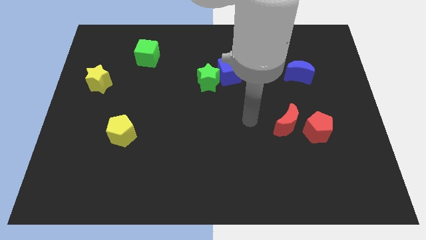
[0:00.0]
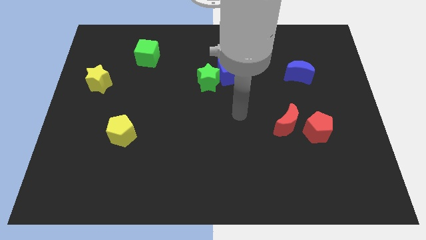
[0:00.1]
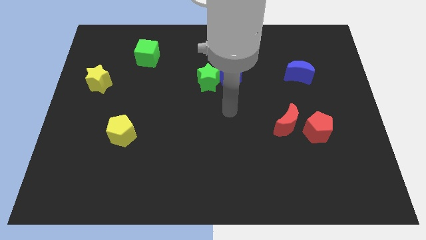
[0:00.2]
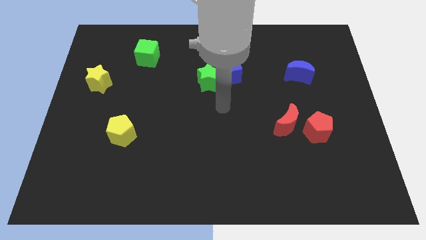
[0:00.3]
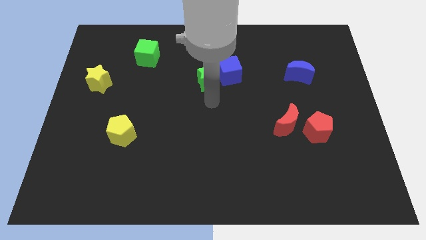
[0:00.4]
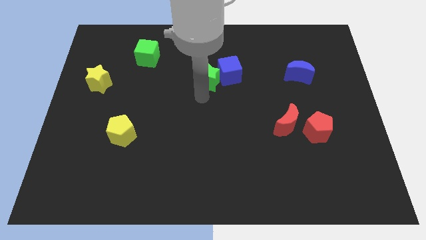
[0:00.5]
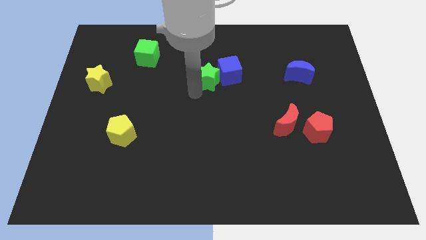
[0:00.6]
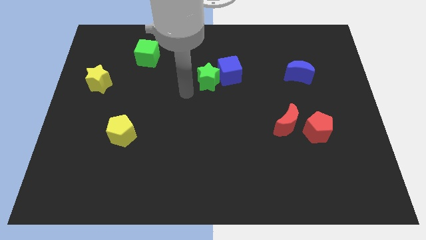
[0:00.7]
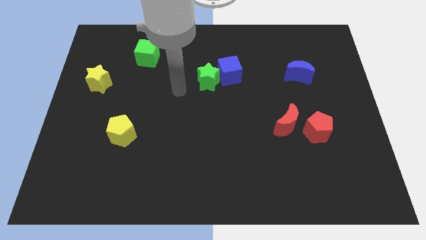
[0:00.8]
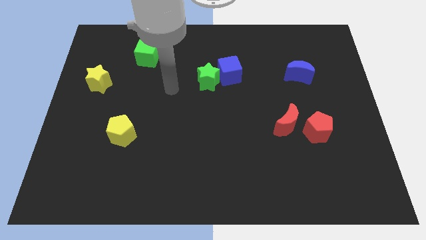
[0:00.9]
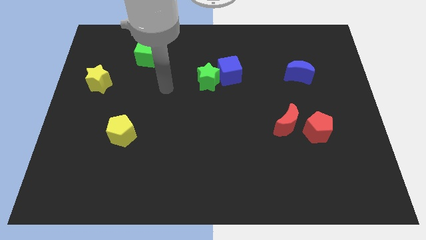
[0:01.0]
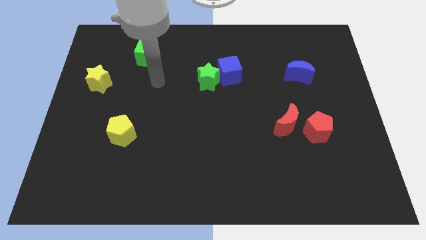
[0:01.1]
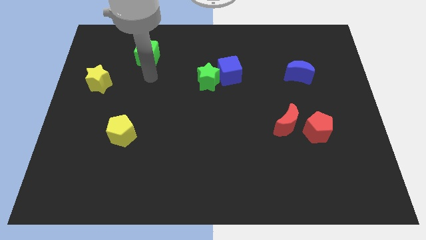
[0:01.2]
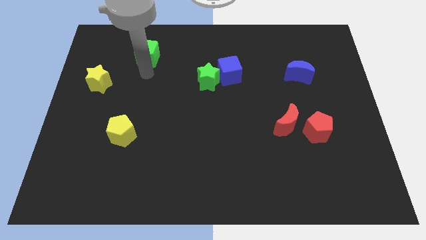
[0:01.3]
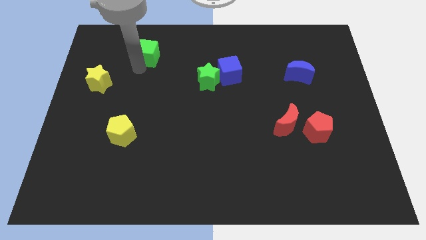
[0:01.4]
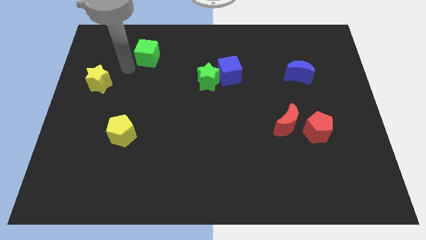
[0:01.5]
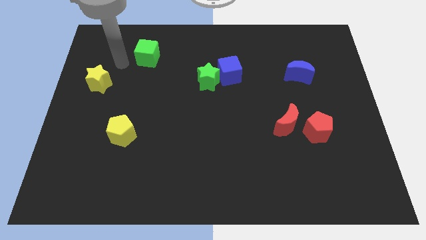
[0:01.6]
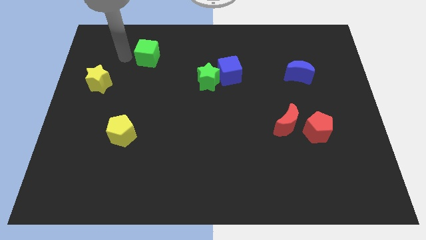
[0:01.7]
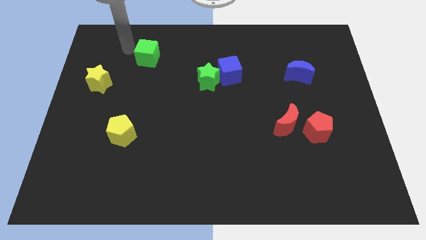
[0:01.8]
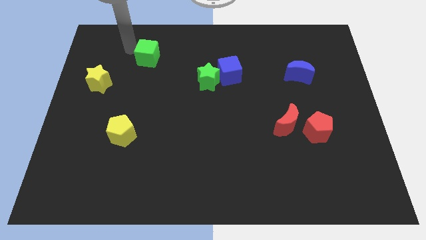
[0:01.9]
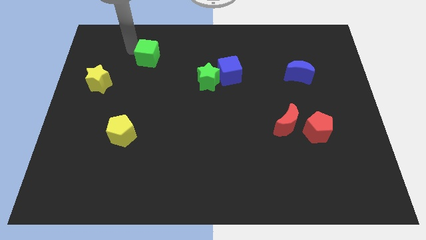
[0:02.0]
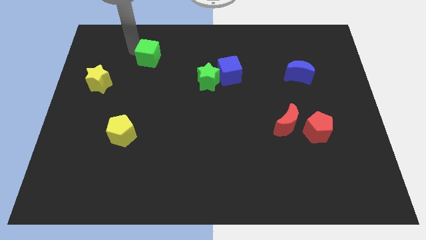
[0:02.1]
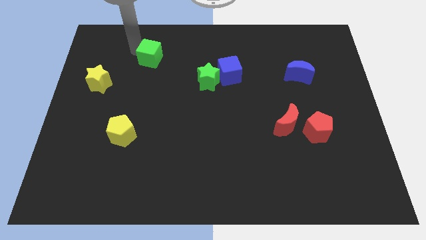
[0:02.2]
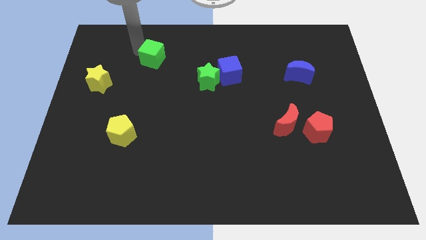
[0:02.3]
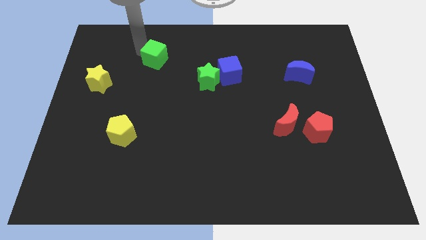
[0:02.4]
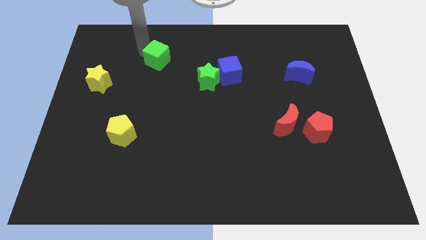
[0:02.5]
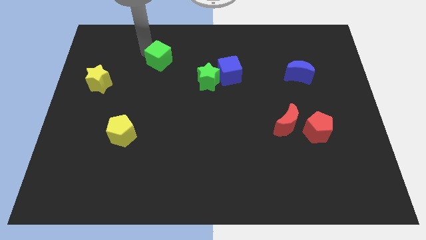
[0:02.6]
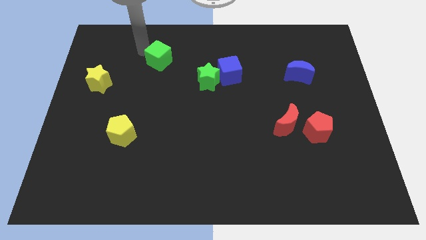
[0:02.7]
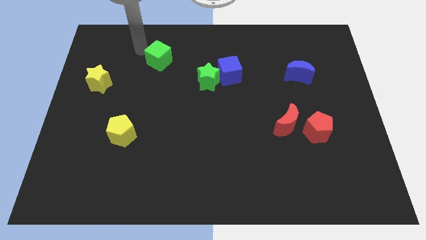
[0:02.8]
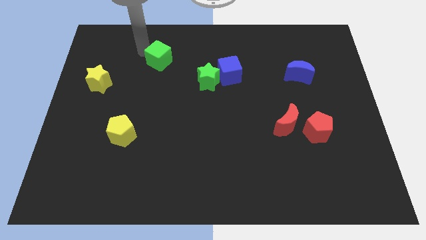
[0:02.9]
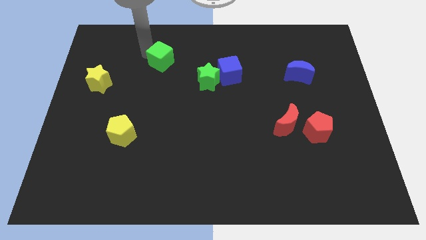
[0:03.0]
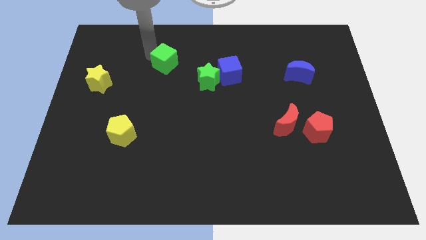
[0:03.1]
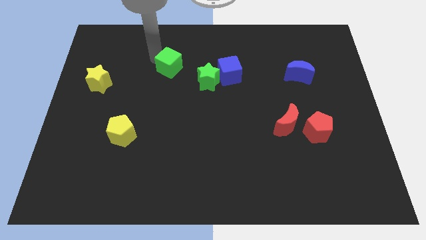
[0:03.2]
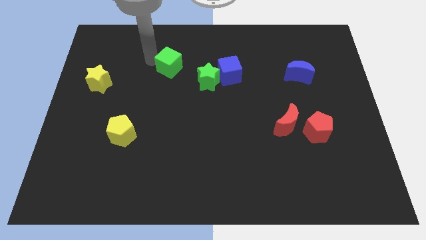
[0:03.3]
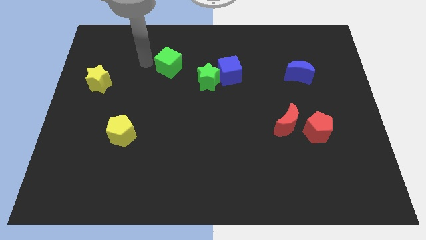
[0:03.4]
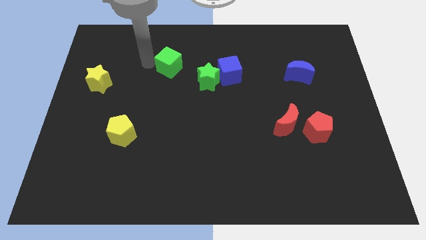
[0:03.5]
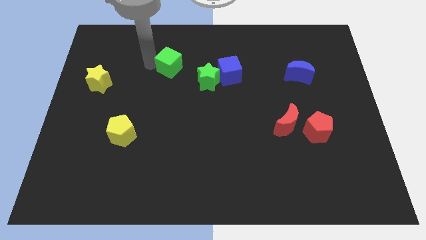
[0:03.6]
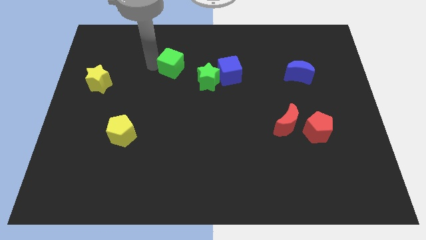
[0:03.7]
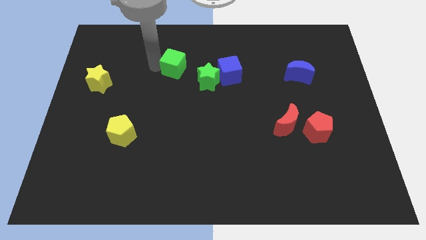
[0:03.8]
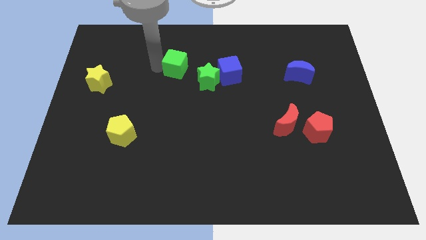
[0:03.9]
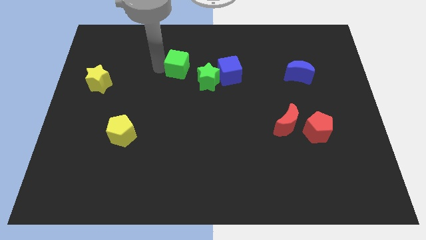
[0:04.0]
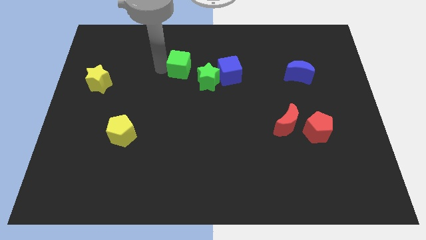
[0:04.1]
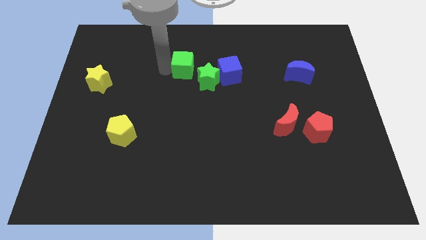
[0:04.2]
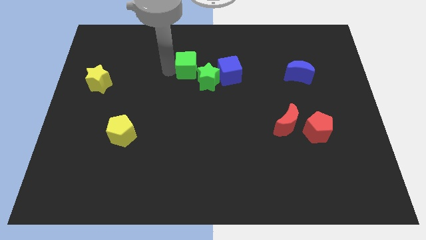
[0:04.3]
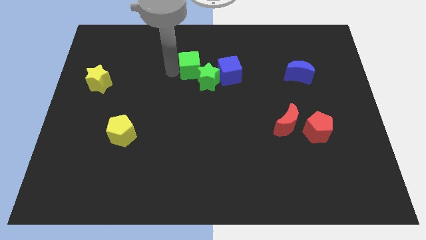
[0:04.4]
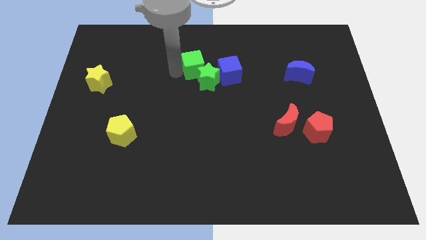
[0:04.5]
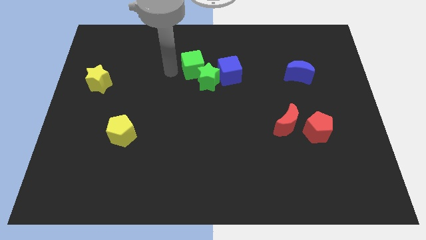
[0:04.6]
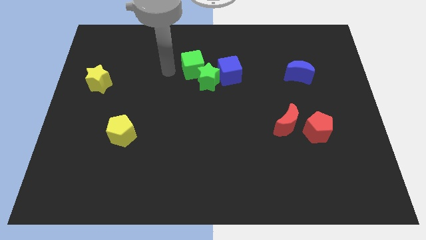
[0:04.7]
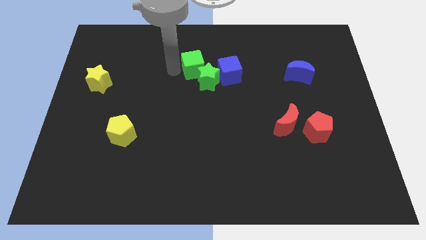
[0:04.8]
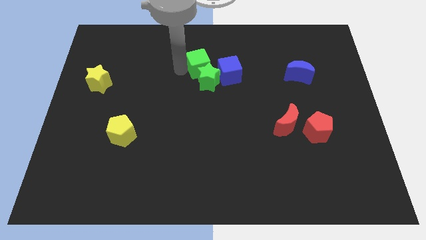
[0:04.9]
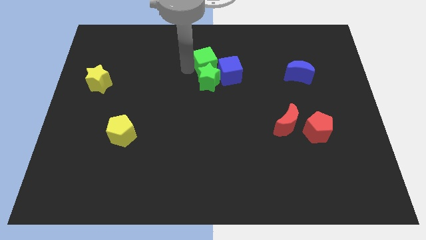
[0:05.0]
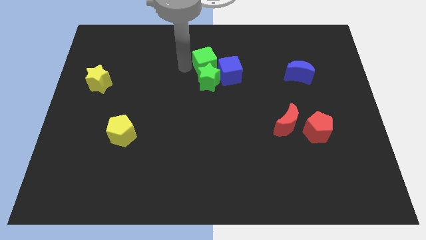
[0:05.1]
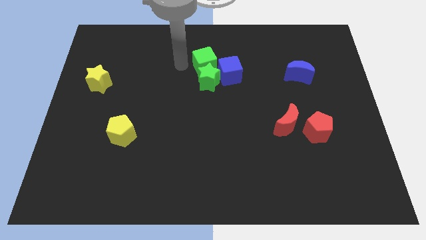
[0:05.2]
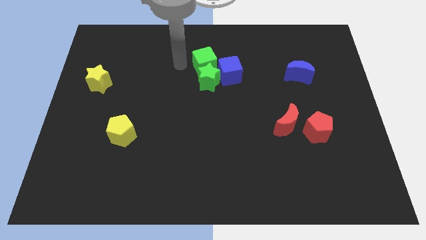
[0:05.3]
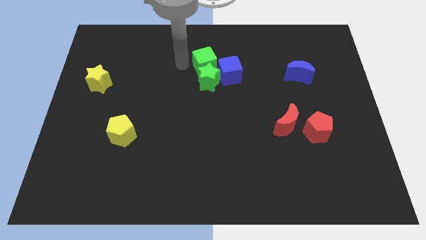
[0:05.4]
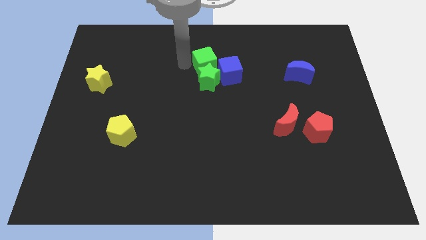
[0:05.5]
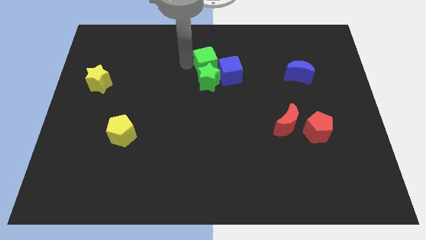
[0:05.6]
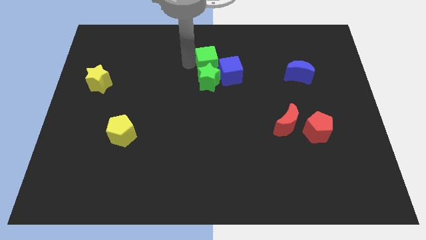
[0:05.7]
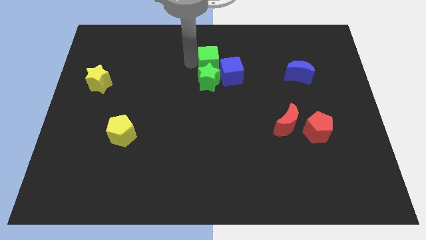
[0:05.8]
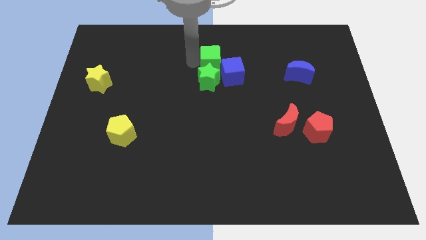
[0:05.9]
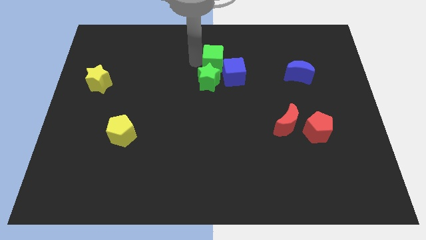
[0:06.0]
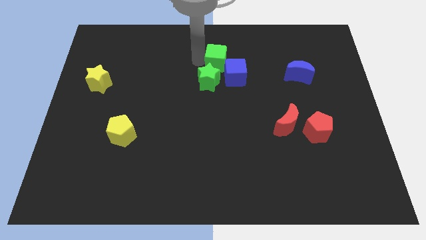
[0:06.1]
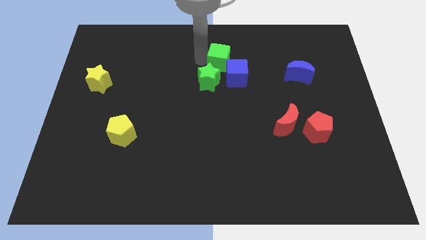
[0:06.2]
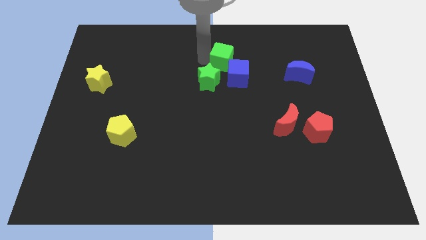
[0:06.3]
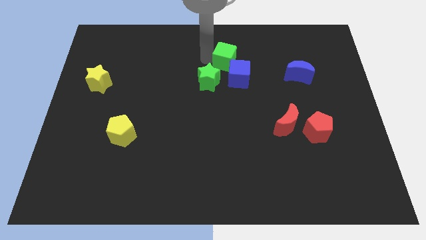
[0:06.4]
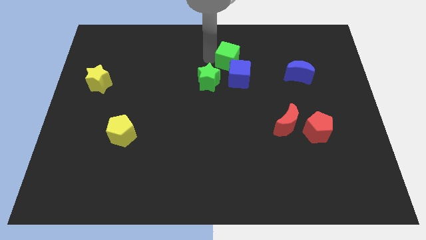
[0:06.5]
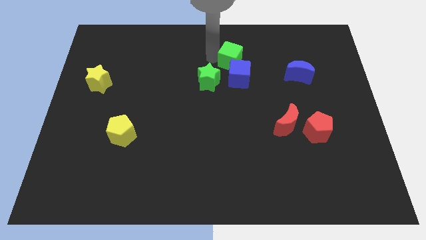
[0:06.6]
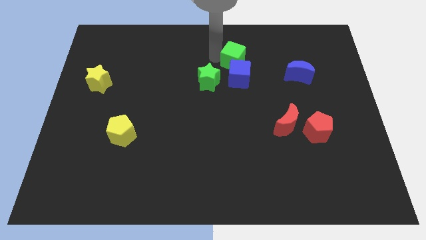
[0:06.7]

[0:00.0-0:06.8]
slide the green cube to the blue cube

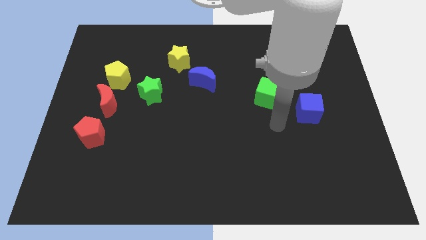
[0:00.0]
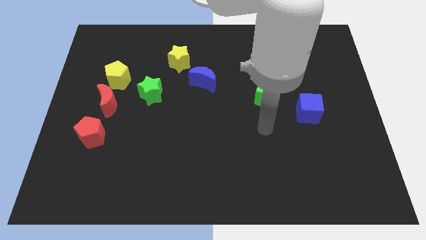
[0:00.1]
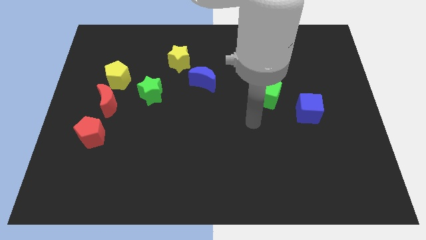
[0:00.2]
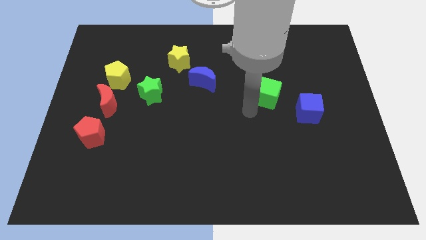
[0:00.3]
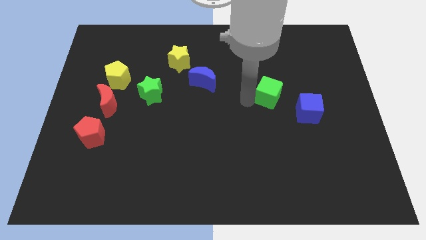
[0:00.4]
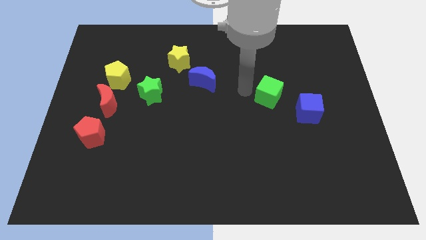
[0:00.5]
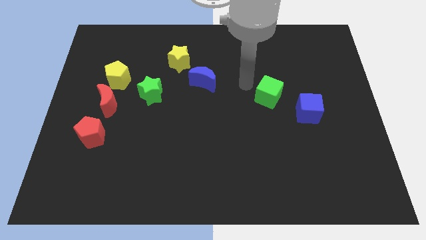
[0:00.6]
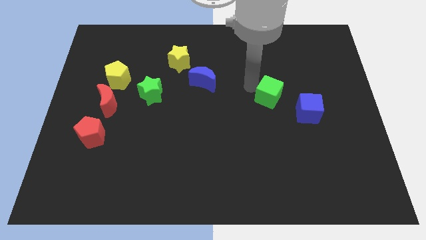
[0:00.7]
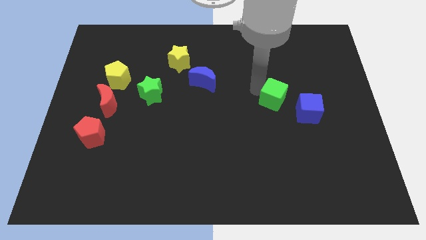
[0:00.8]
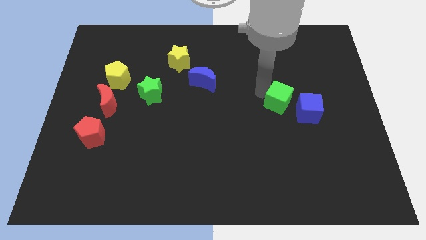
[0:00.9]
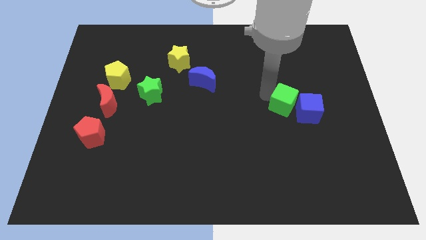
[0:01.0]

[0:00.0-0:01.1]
put the green cube to the blue cube
